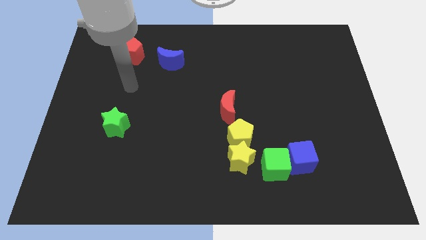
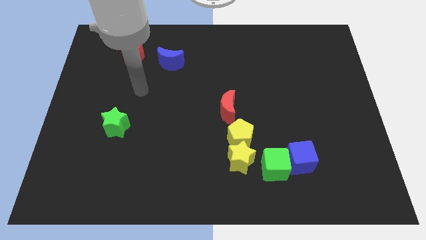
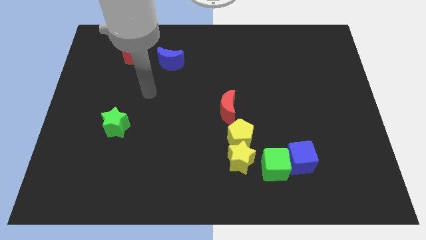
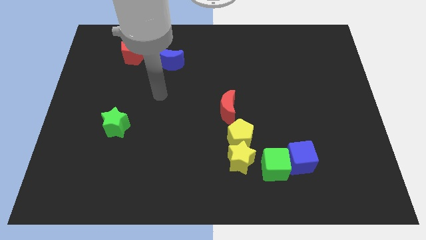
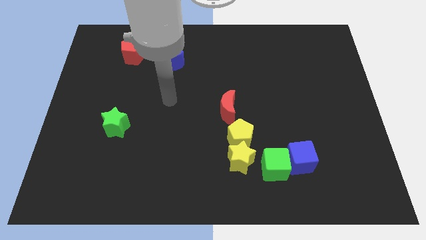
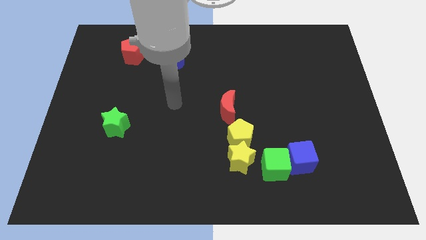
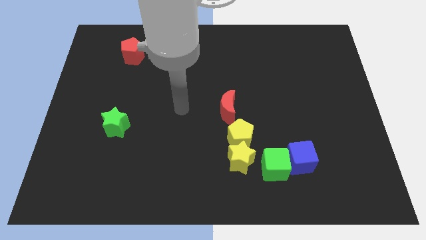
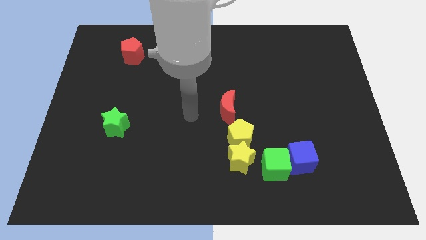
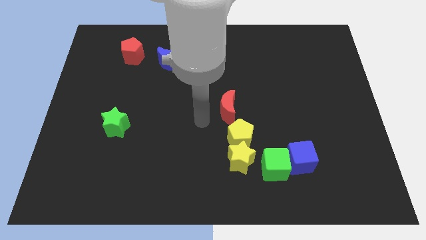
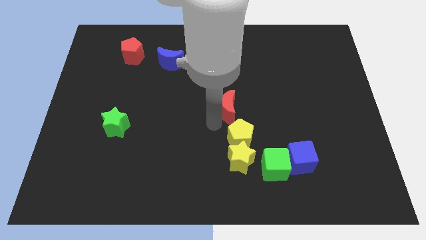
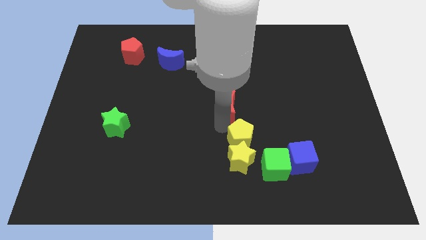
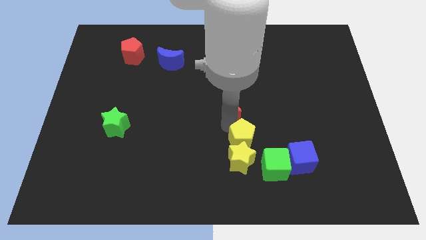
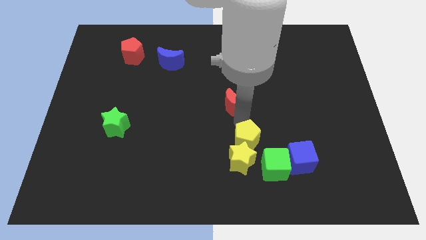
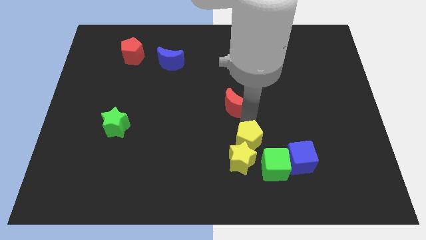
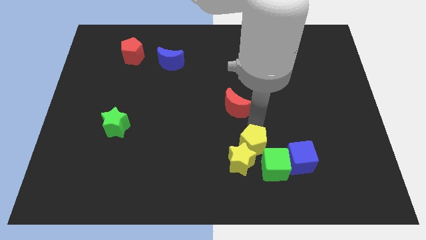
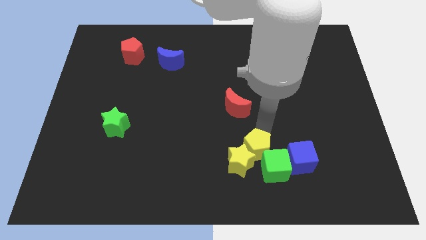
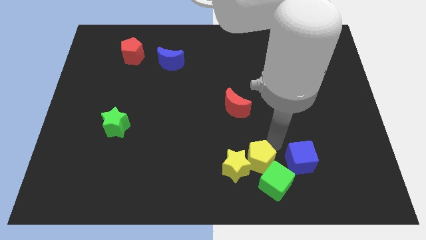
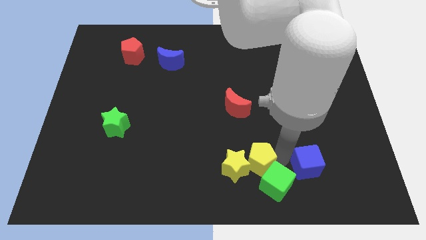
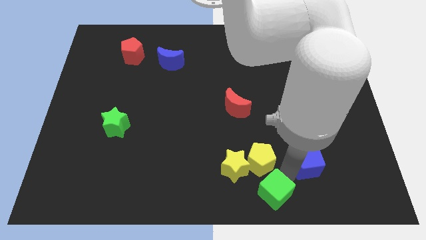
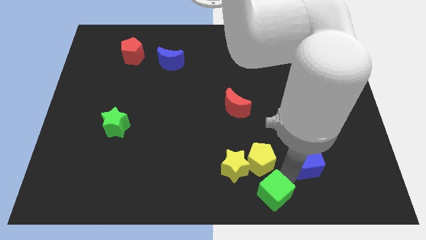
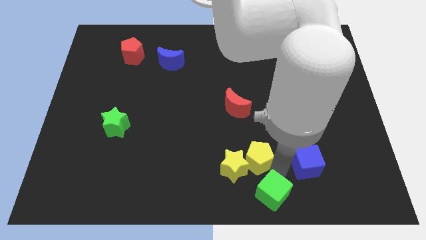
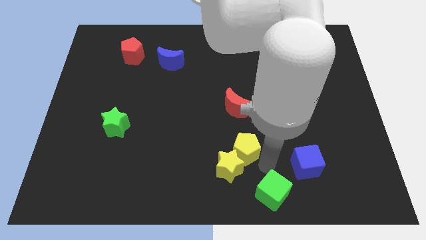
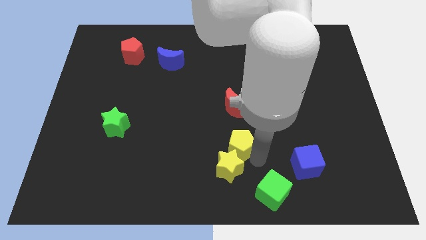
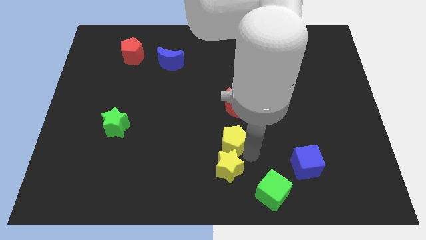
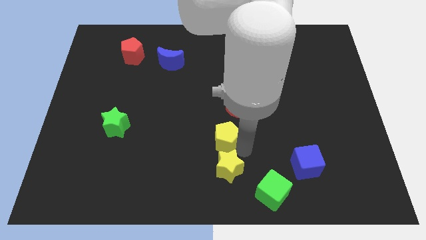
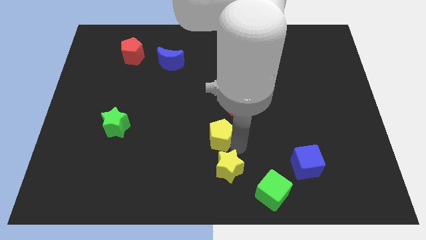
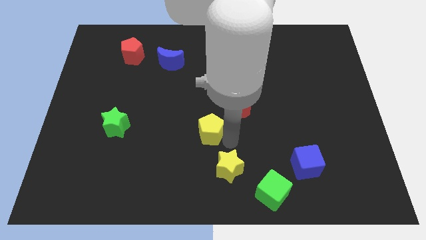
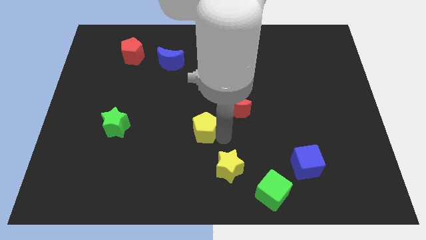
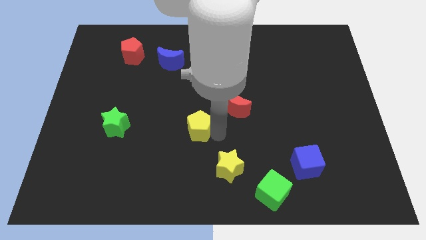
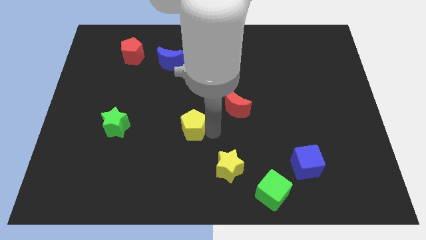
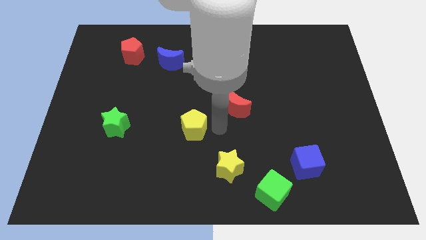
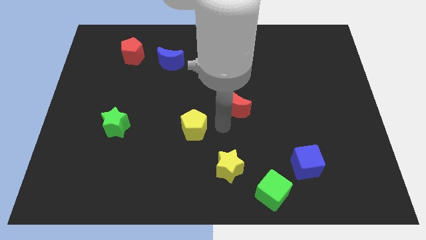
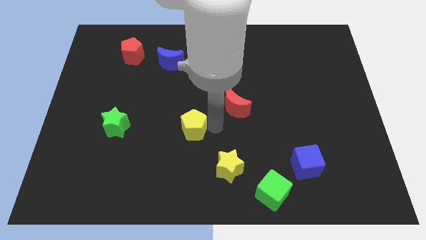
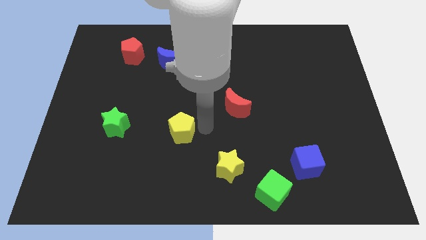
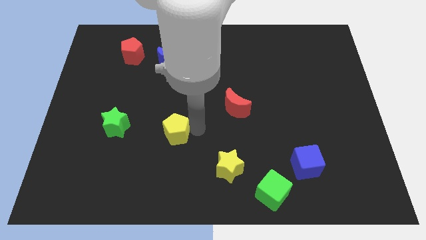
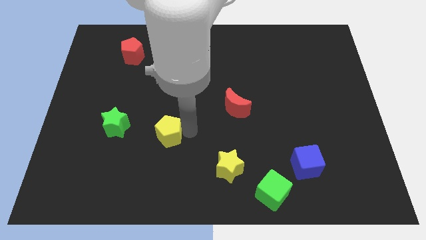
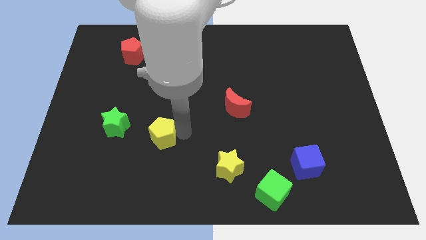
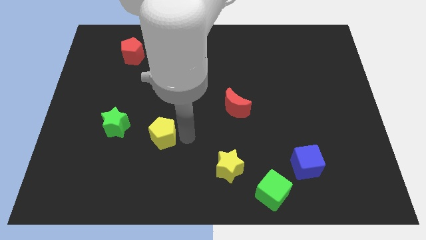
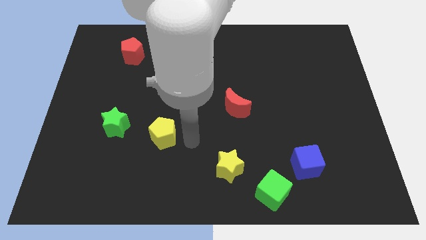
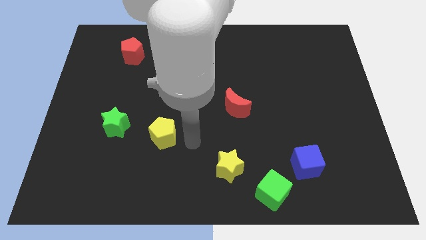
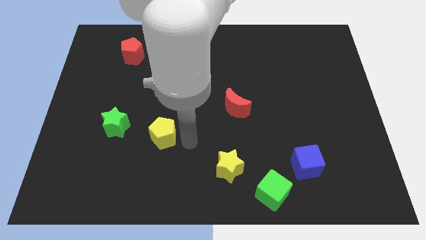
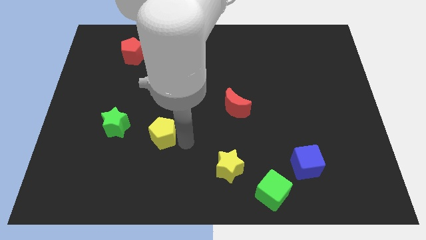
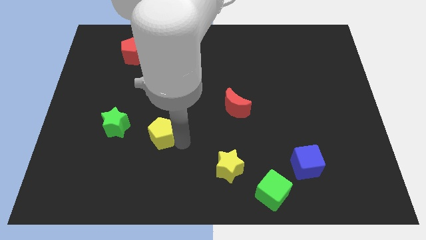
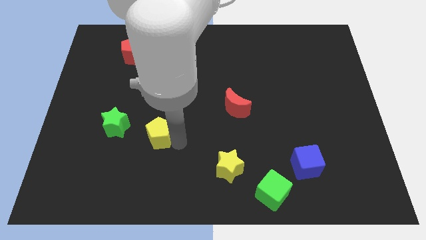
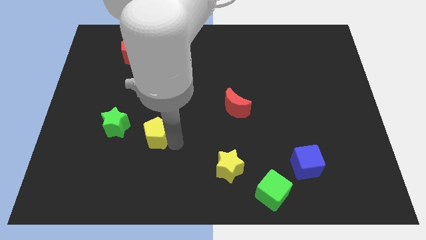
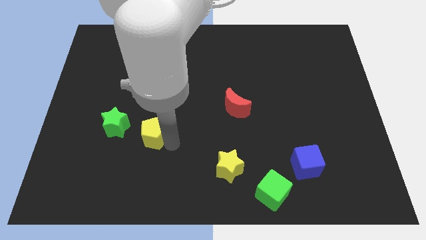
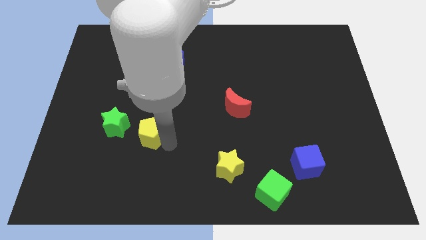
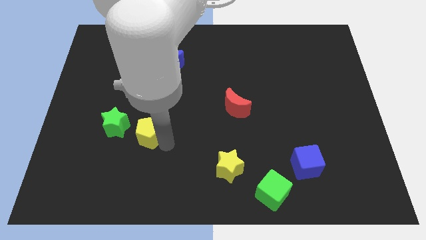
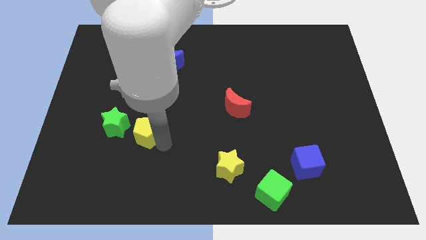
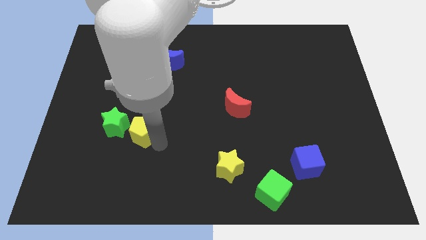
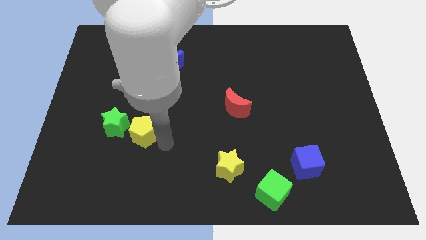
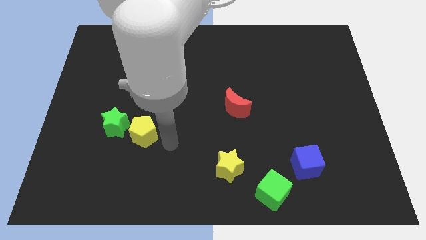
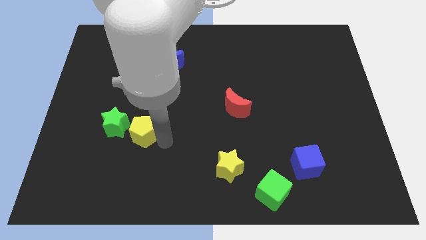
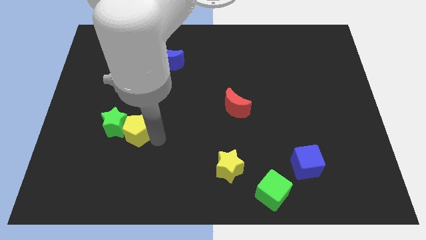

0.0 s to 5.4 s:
slide the yellow pentagon next to the green star

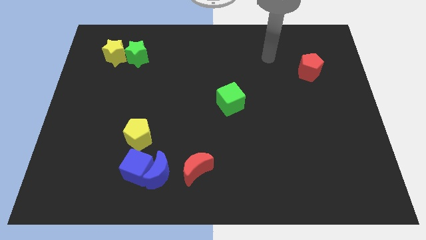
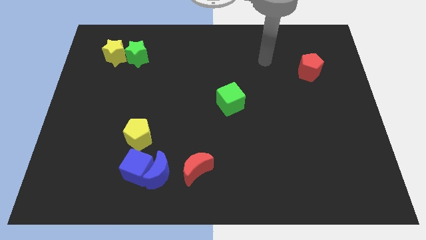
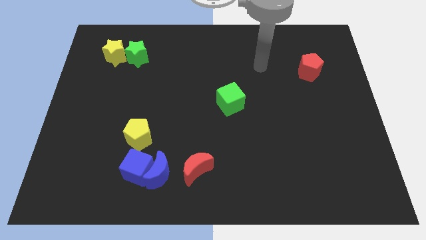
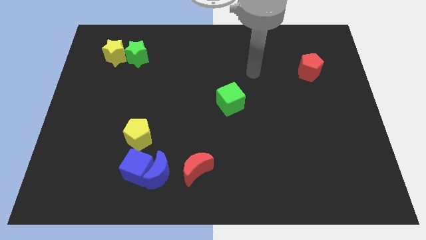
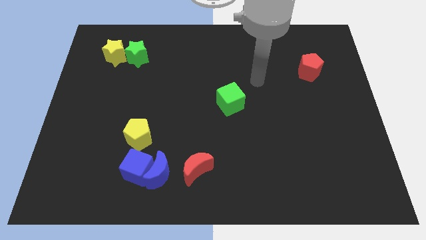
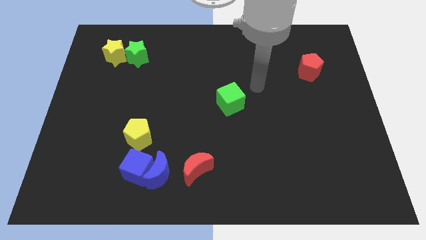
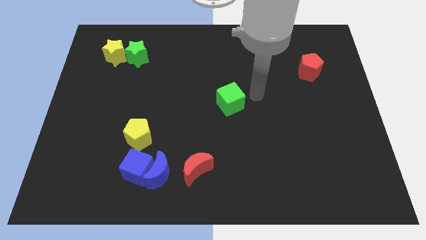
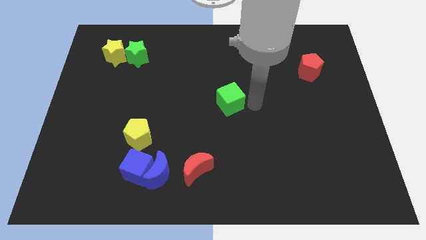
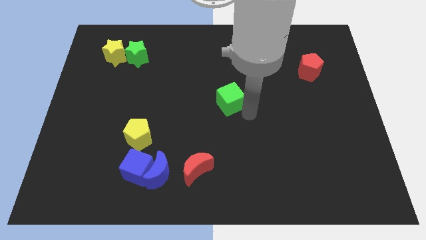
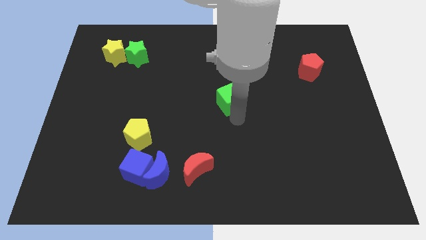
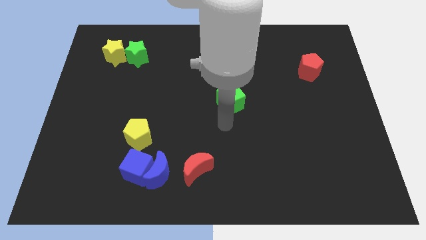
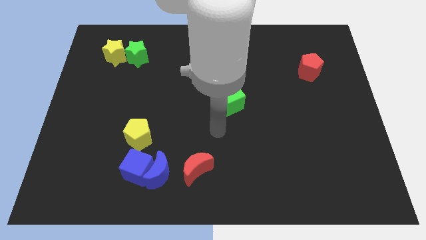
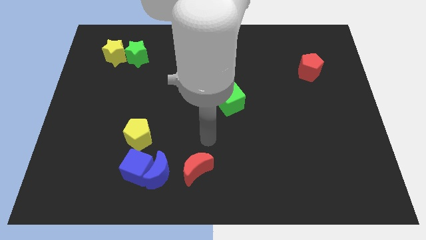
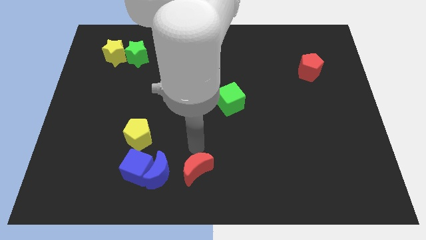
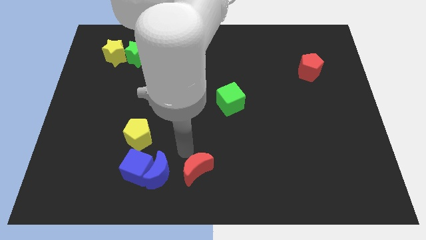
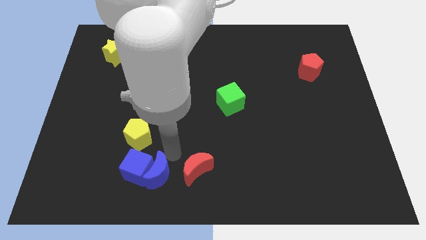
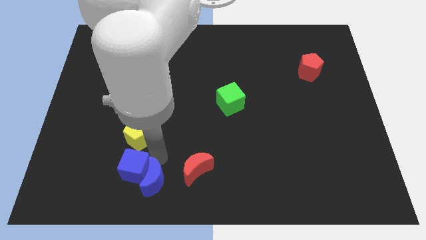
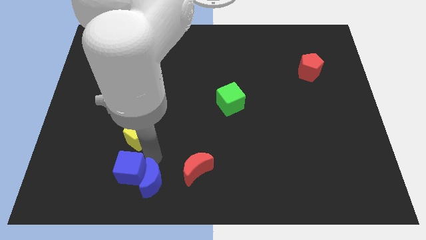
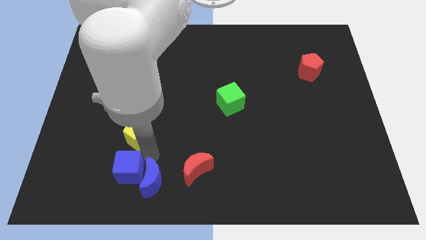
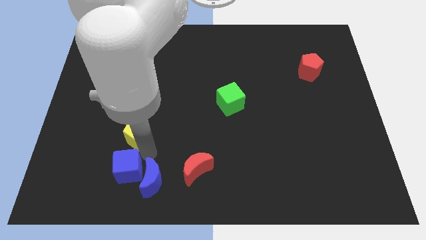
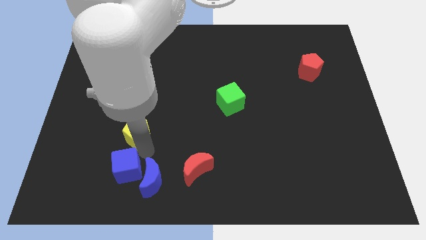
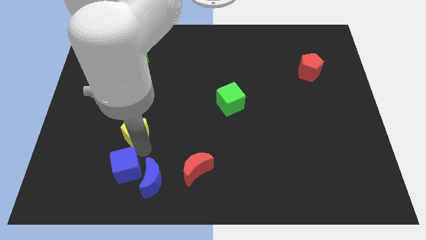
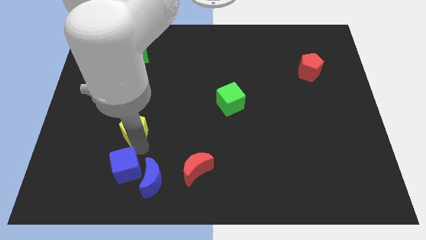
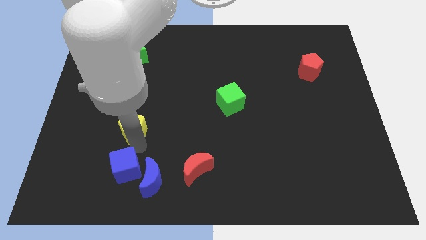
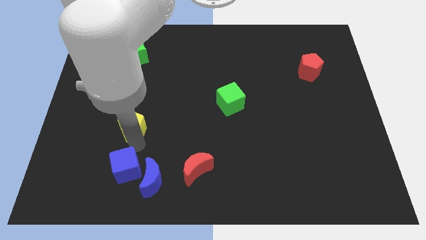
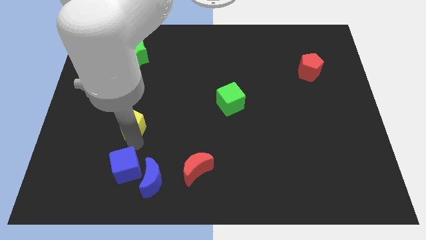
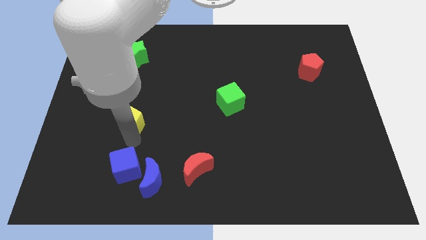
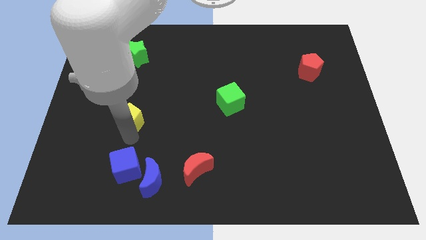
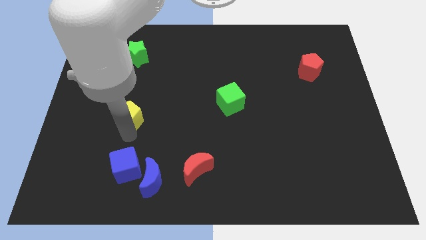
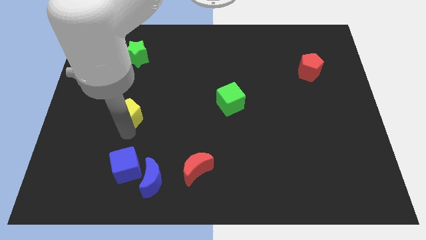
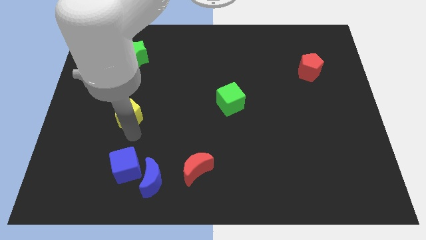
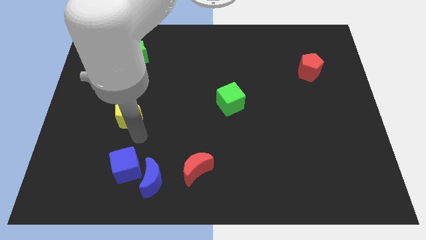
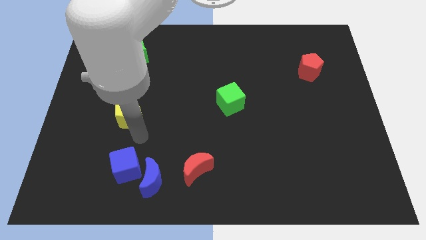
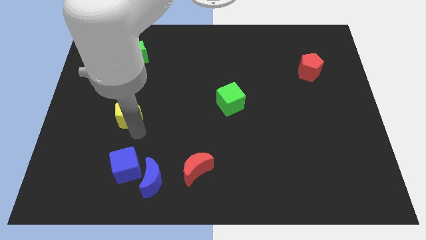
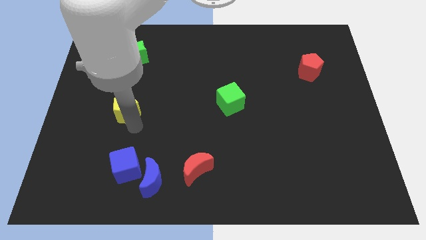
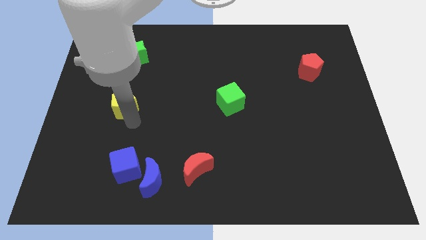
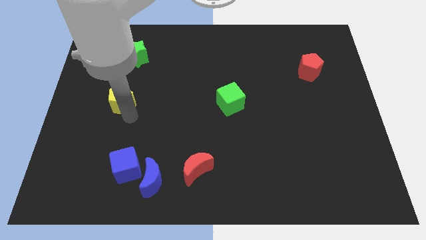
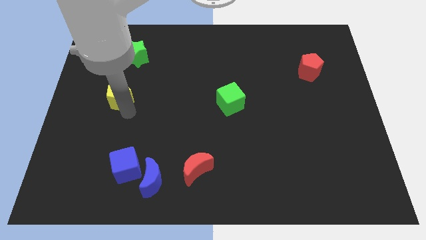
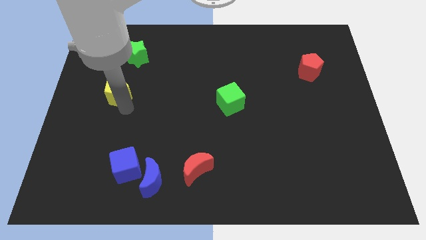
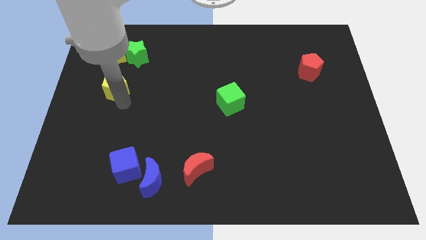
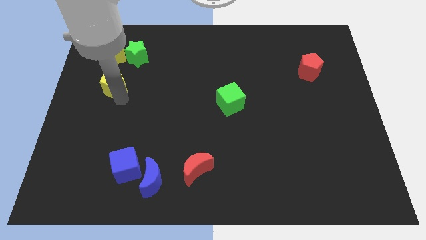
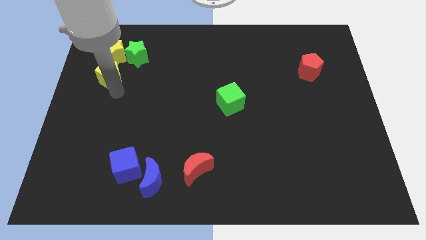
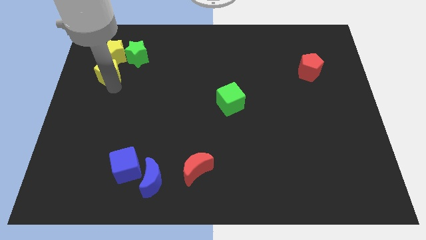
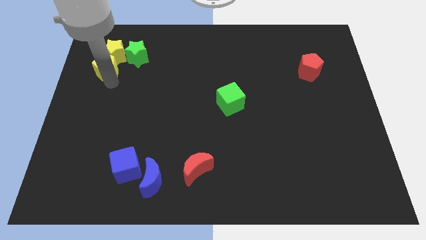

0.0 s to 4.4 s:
push the yellow pentagon close to the yellow star
